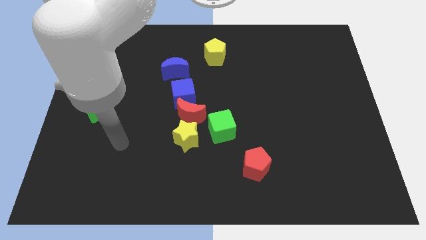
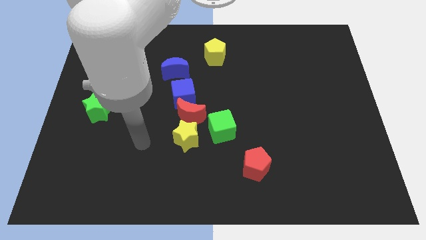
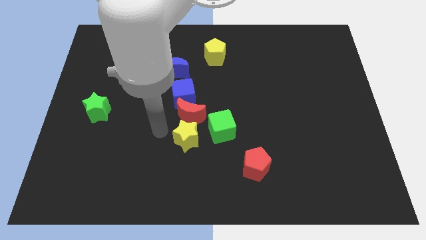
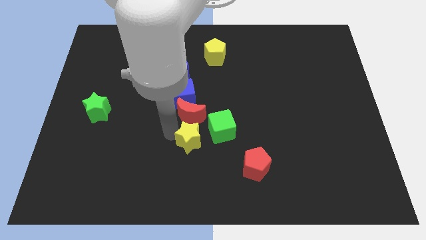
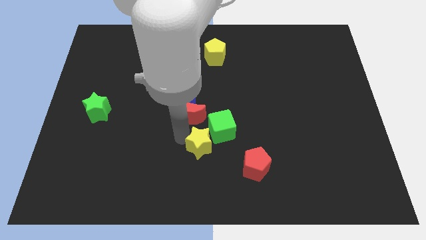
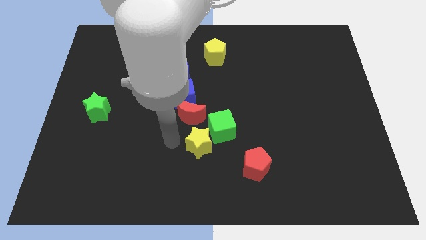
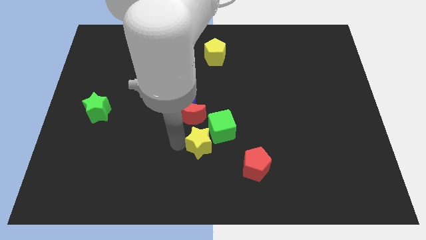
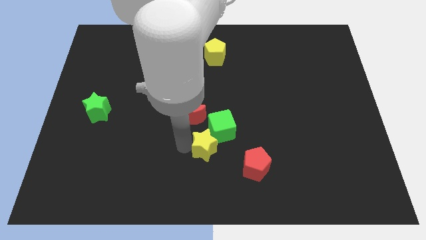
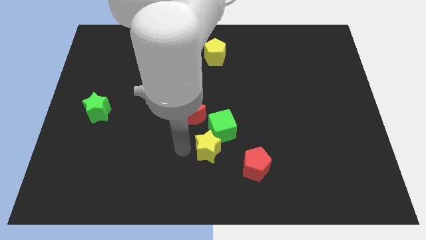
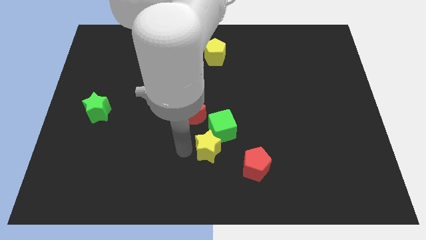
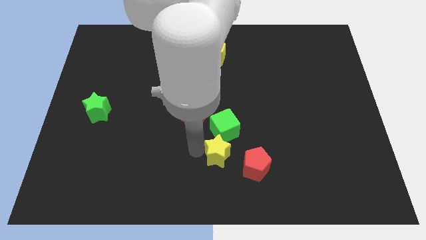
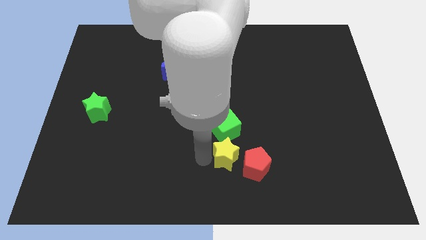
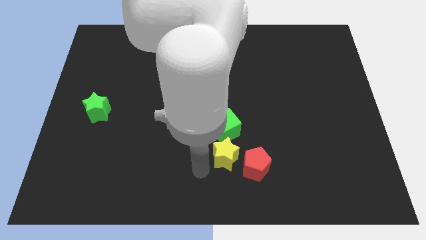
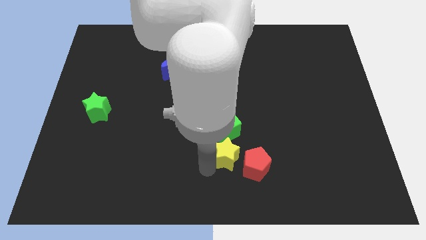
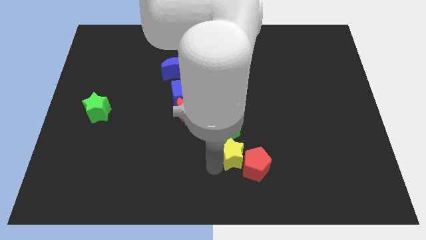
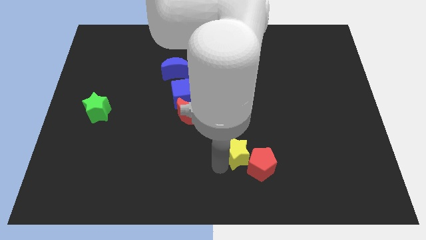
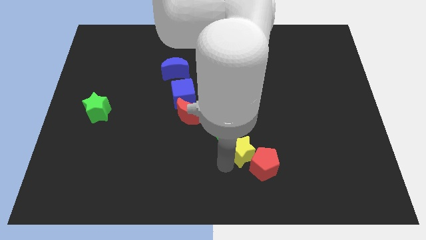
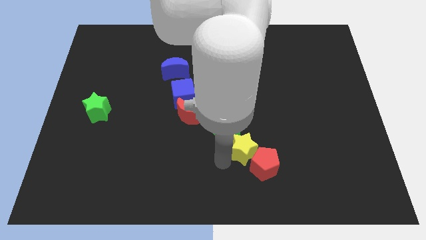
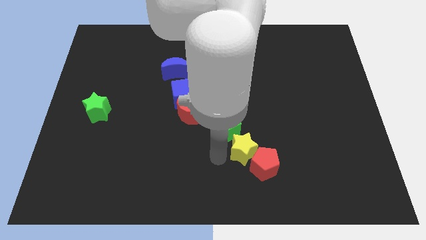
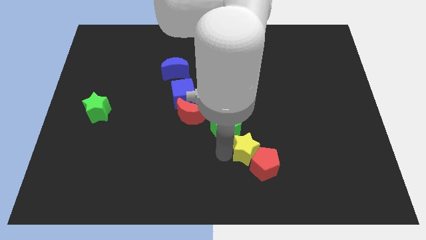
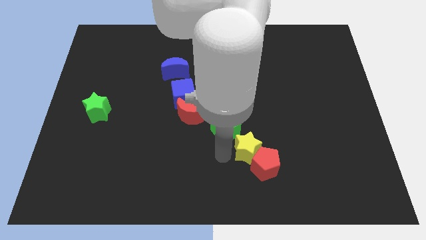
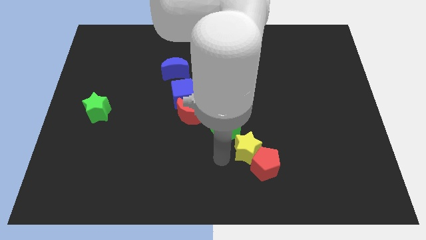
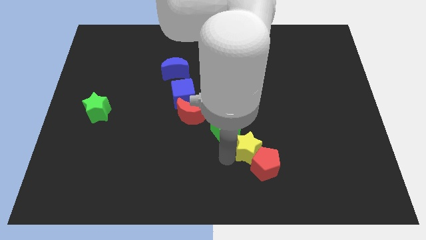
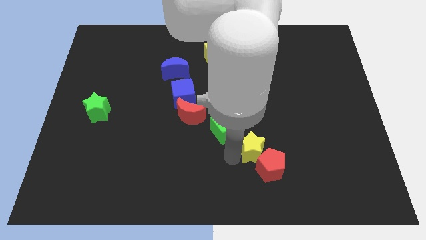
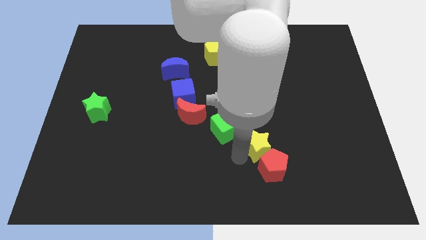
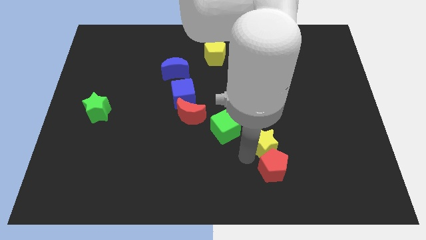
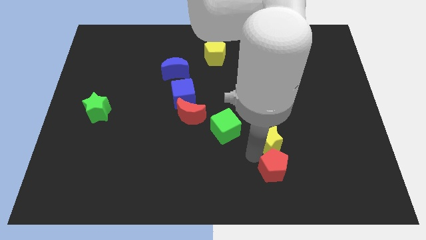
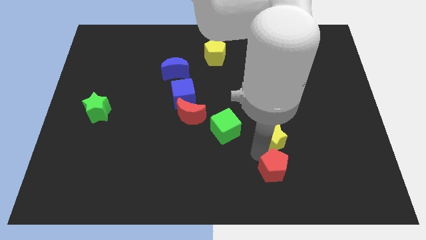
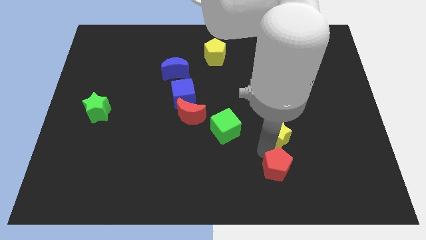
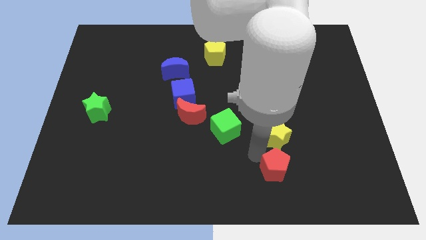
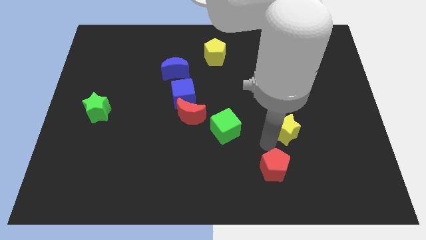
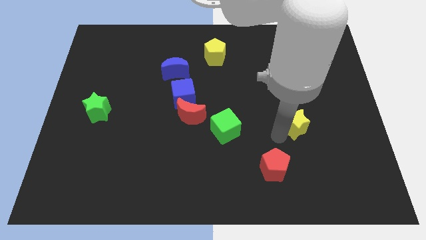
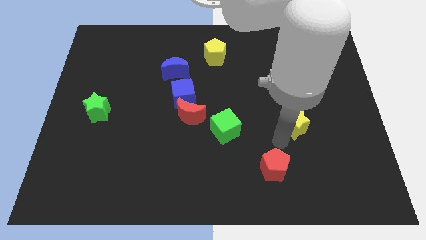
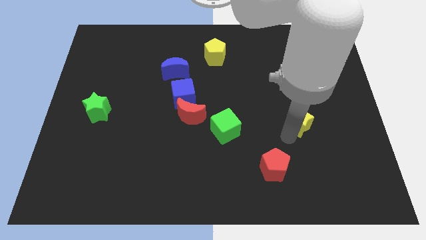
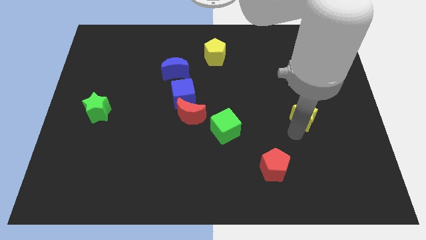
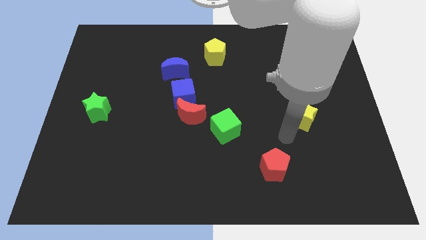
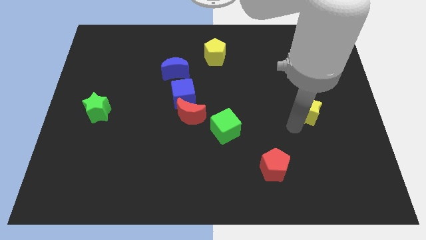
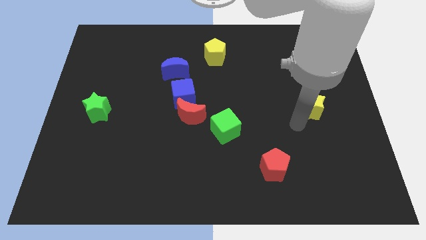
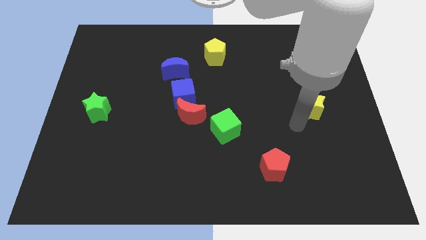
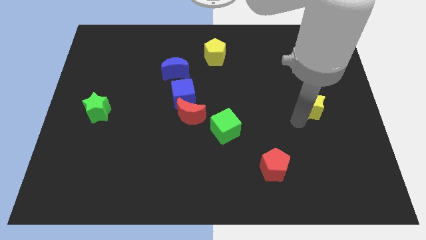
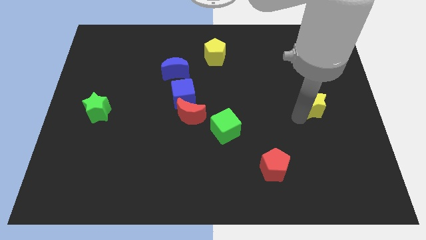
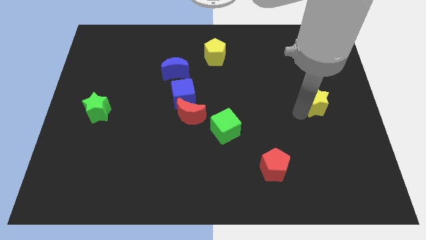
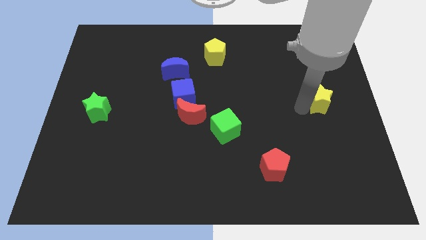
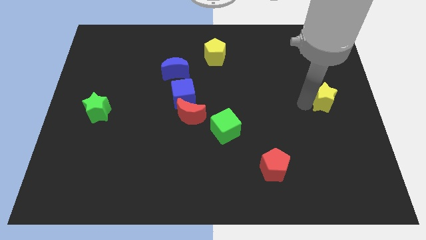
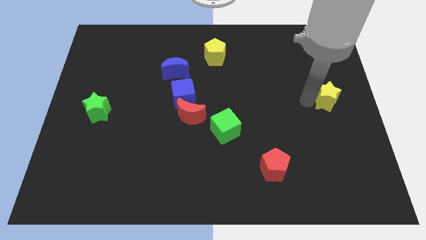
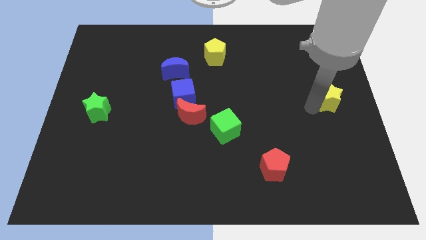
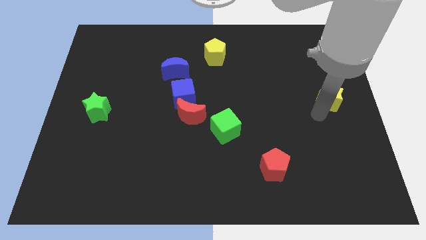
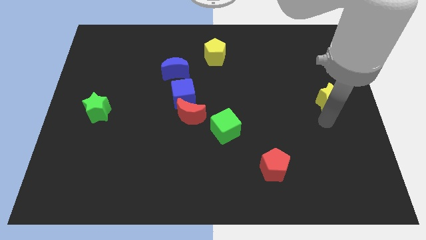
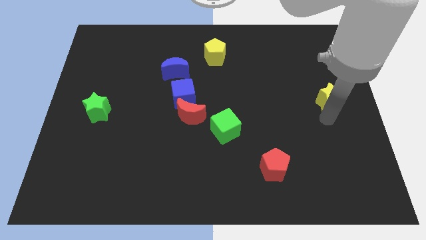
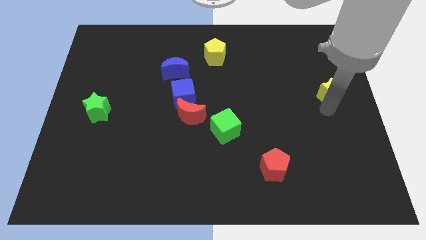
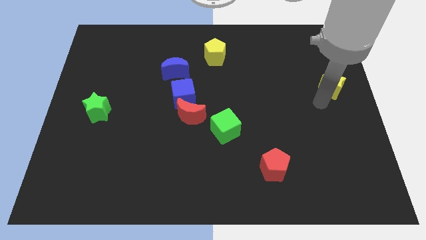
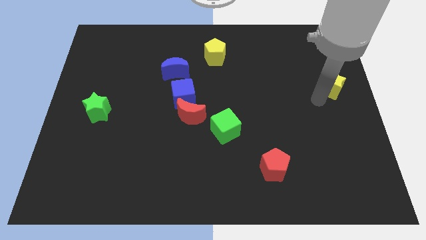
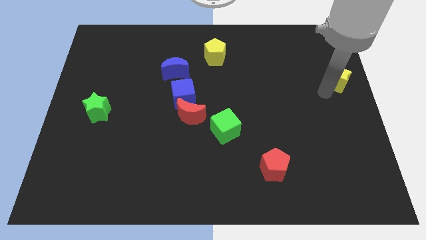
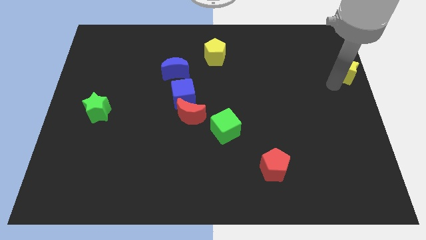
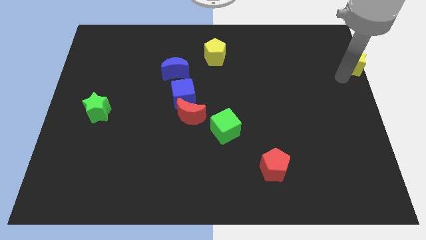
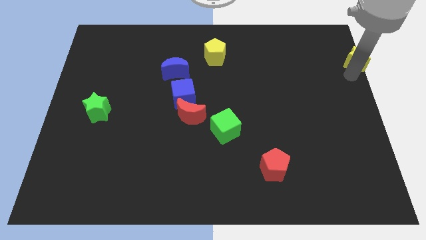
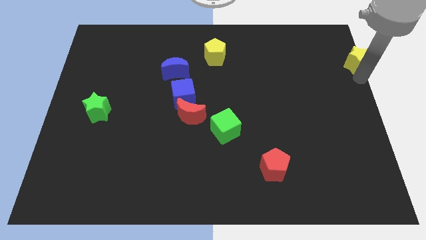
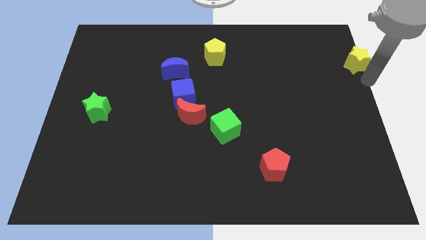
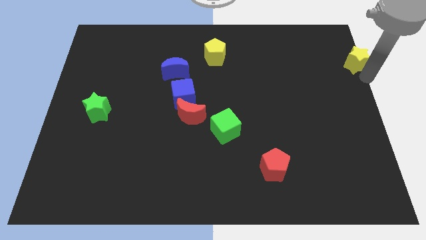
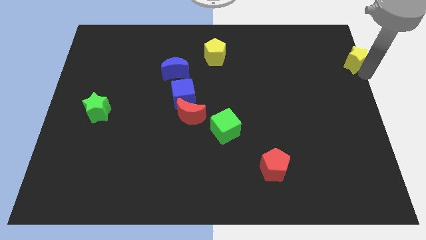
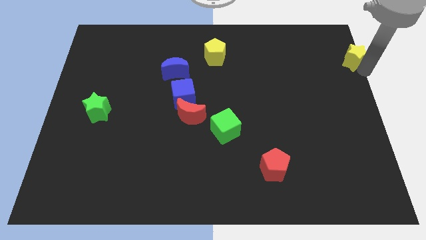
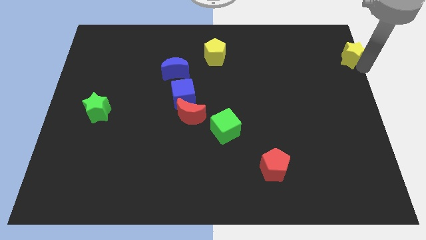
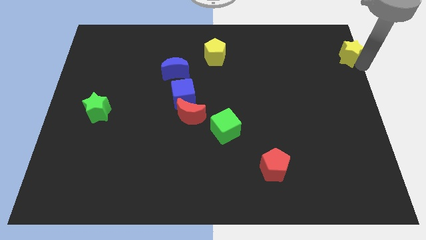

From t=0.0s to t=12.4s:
move the yellow star to the top right corner
